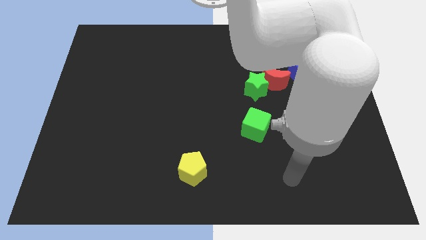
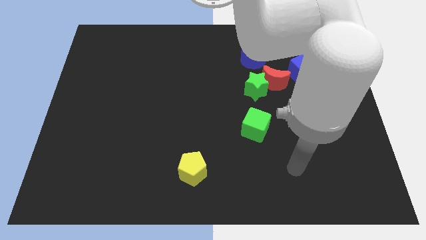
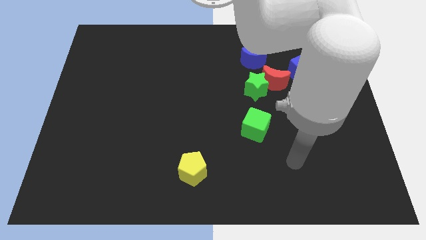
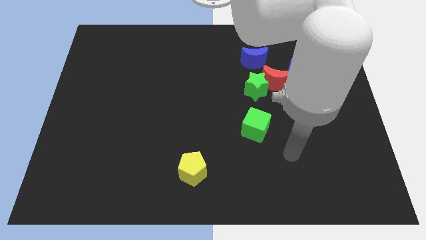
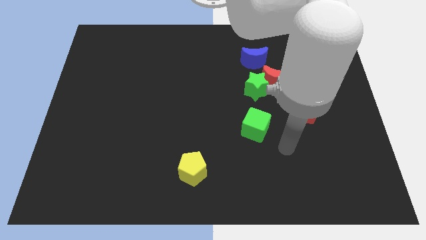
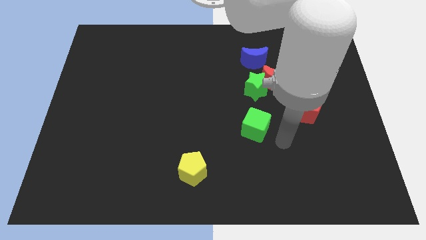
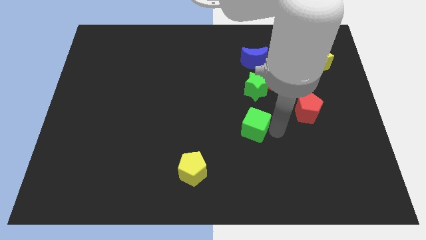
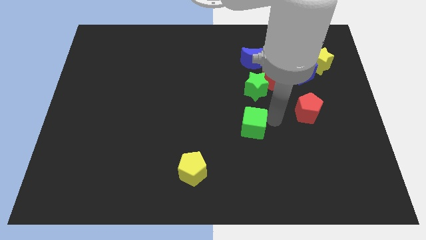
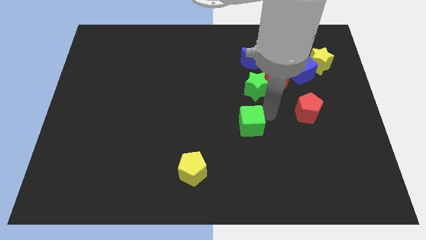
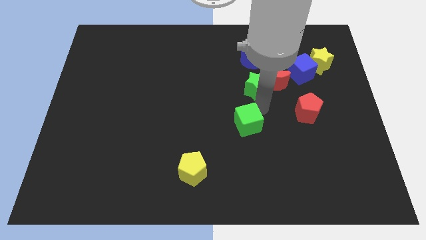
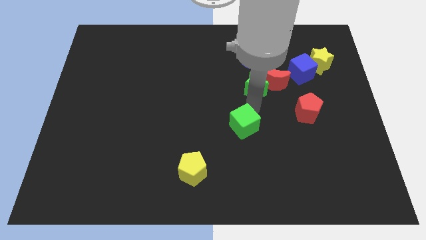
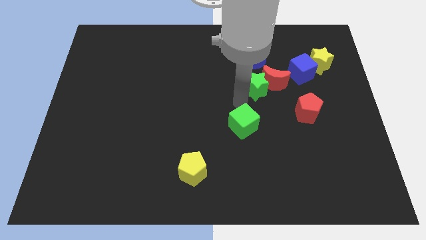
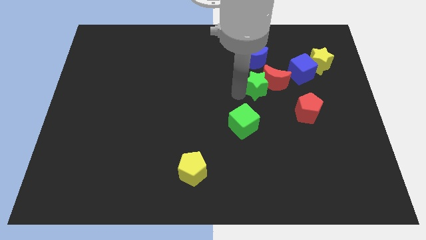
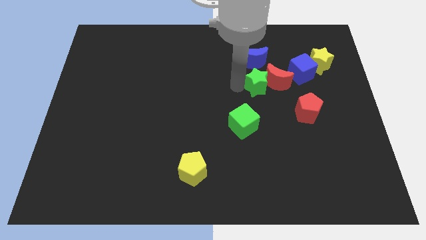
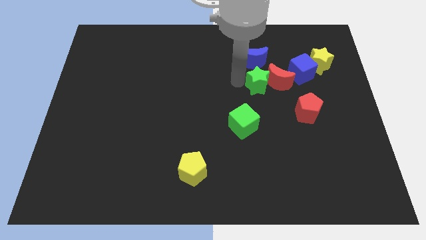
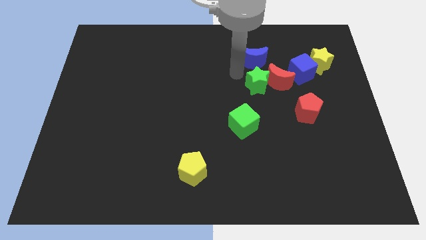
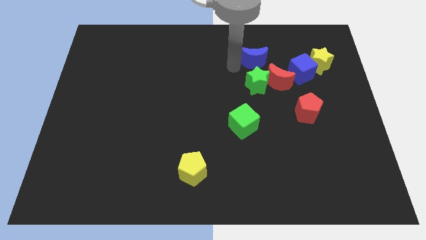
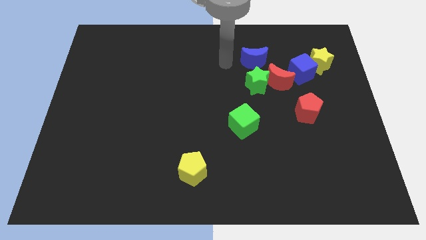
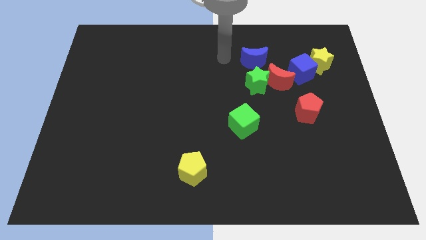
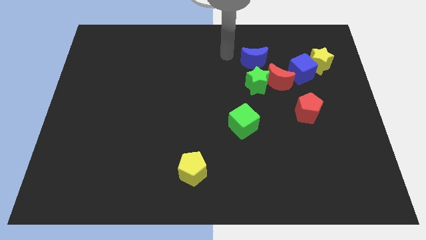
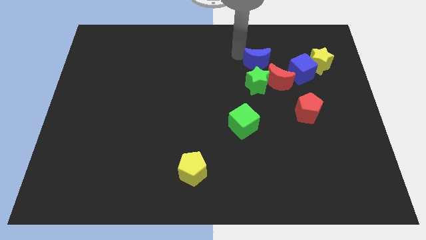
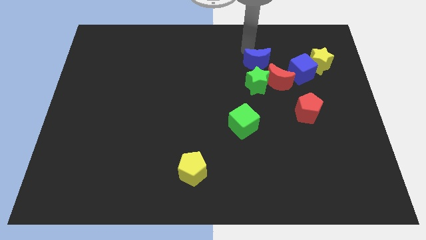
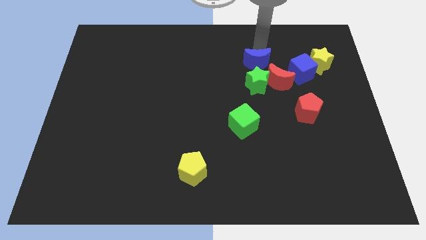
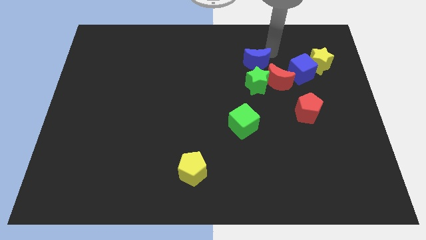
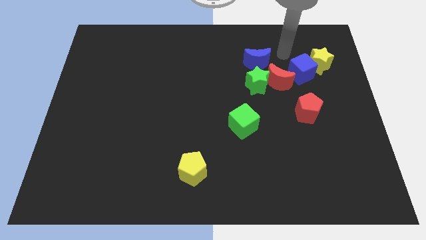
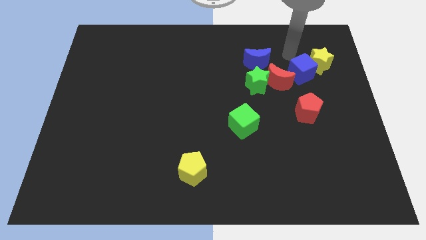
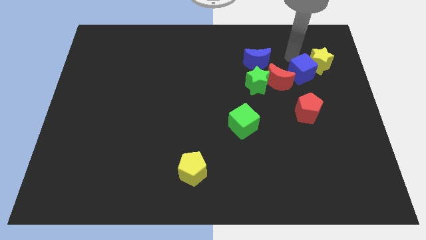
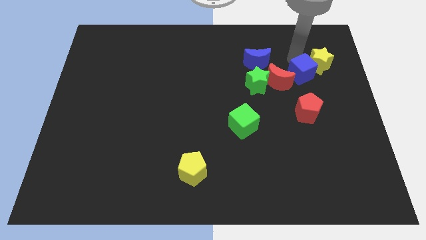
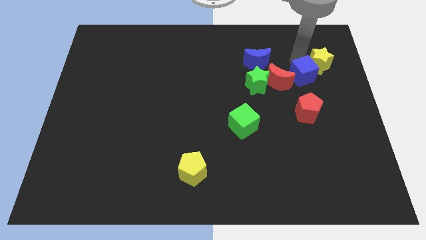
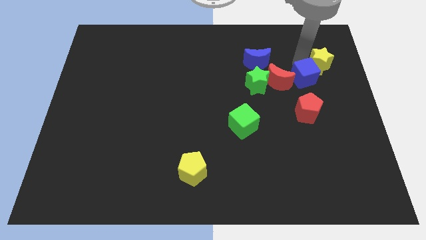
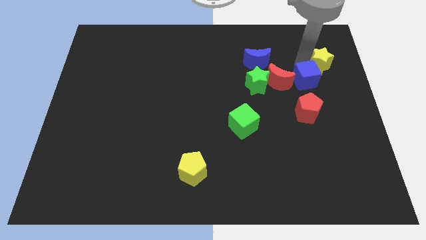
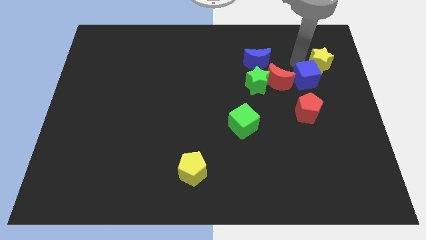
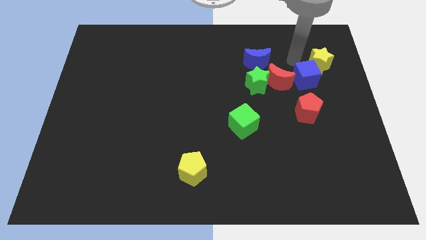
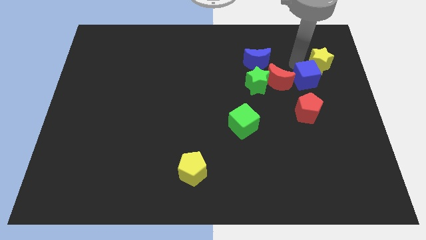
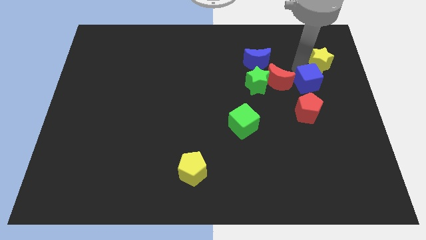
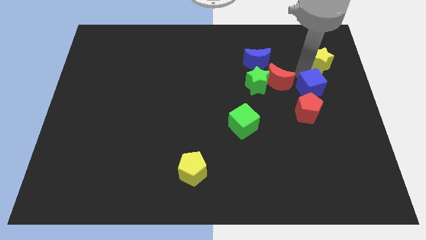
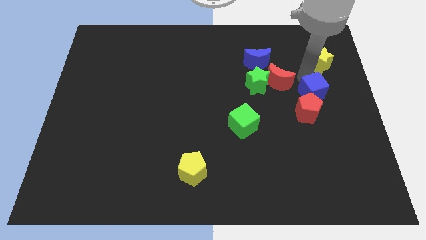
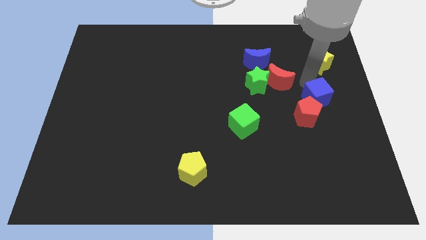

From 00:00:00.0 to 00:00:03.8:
push the blue cube down slightly

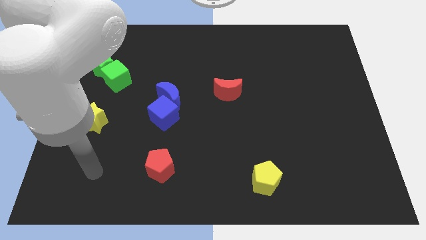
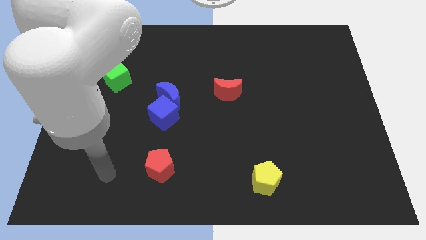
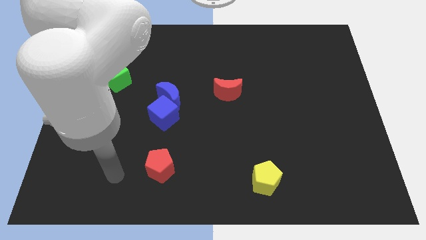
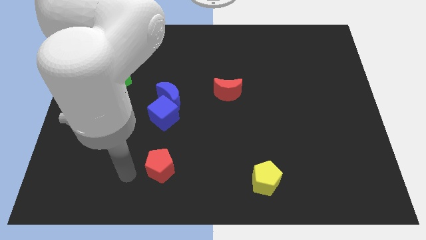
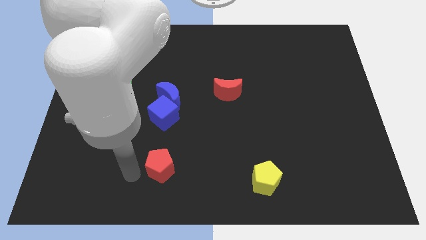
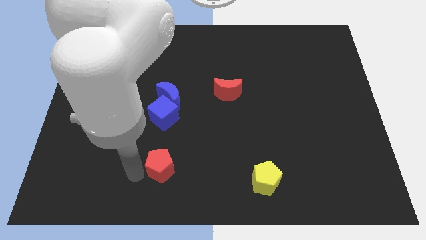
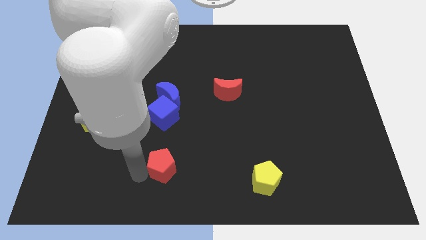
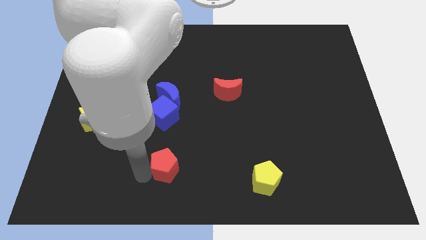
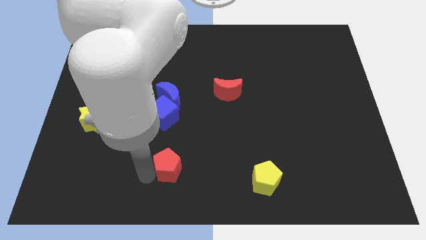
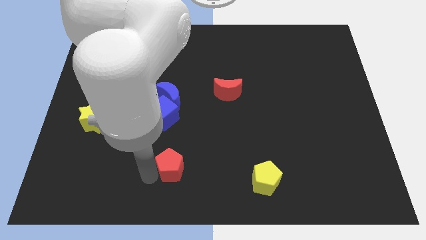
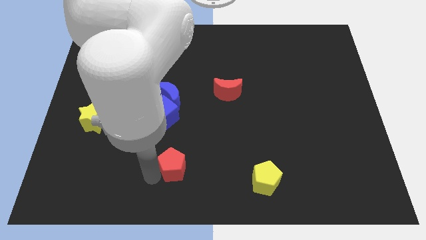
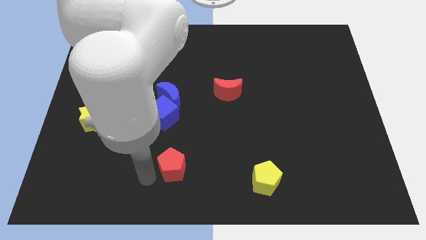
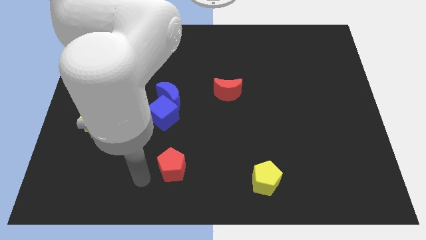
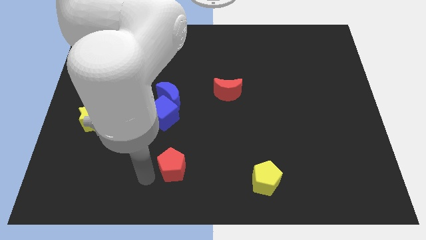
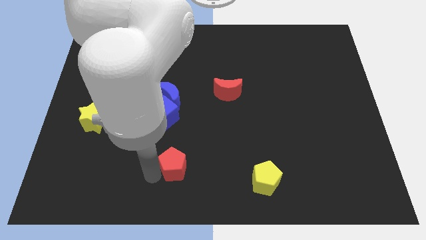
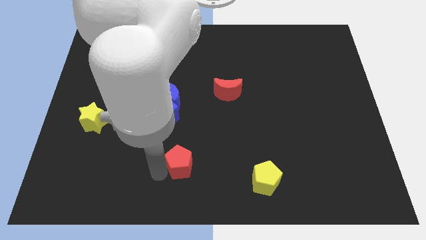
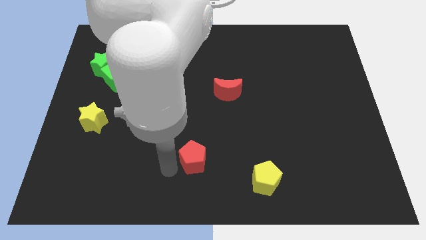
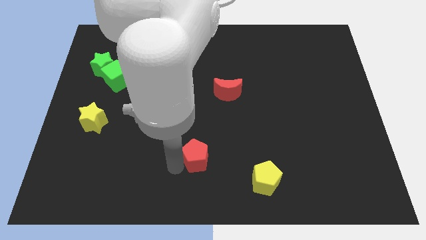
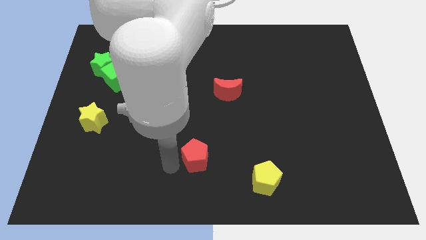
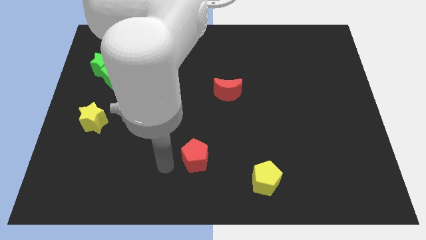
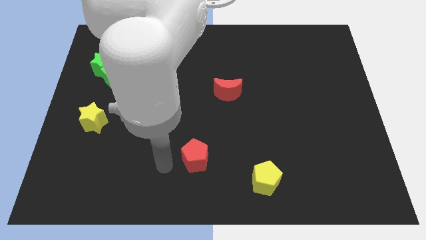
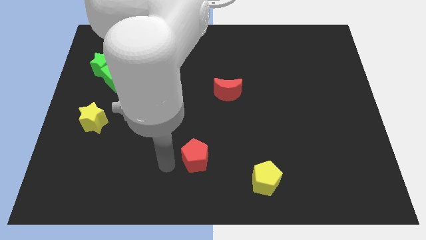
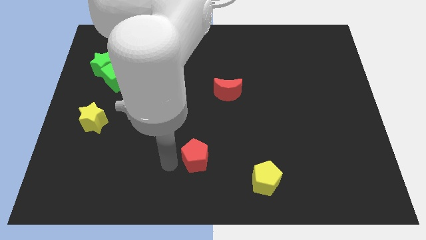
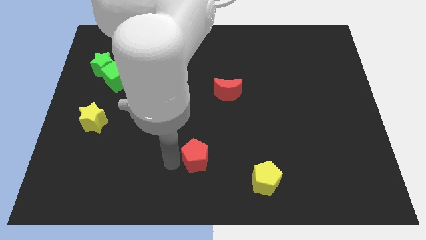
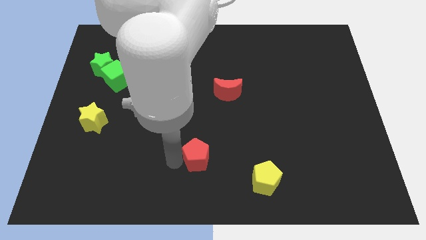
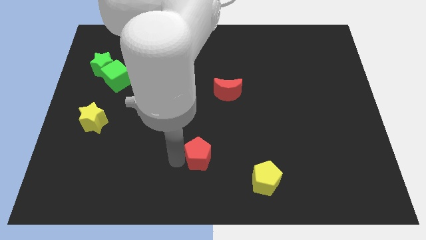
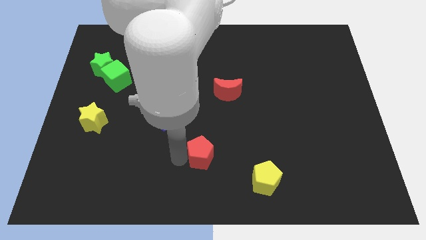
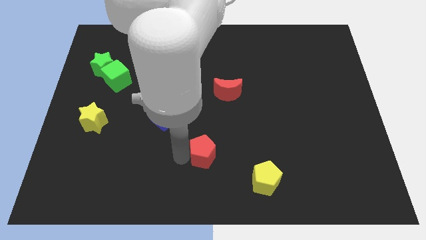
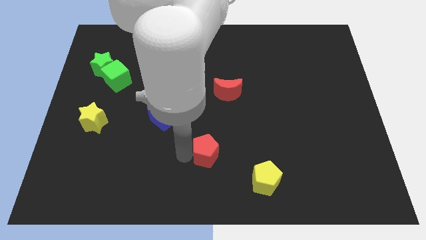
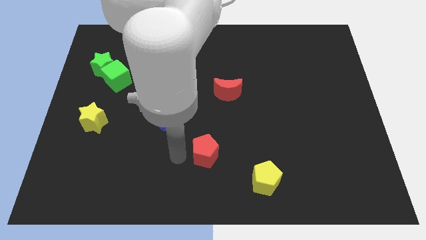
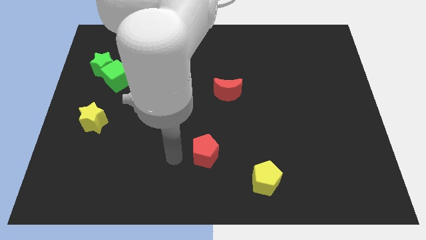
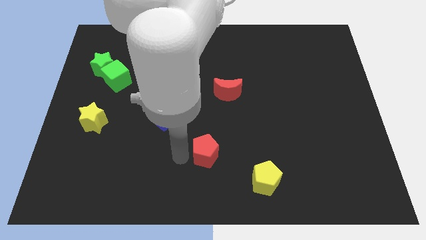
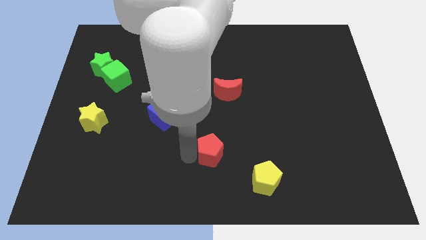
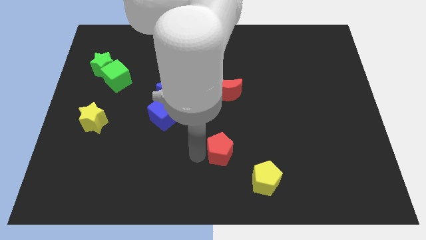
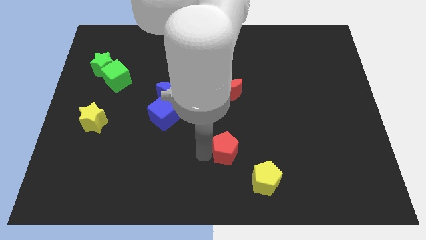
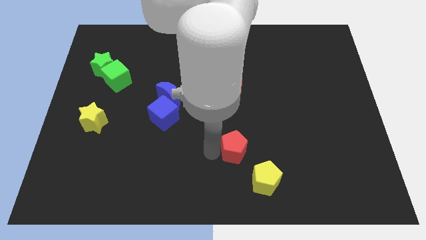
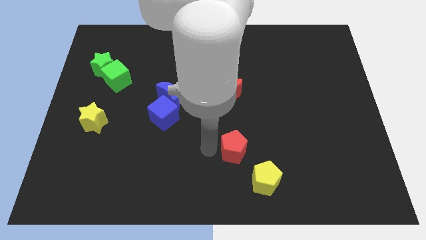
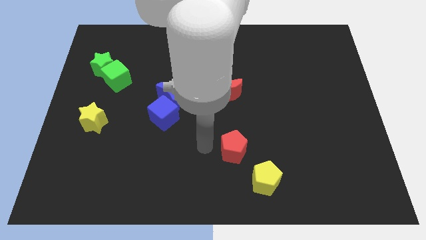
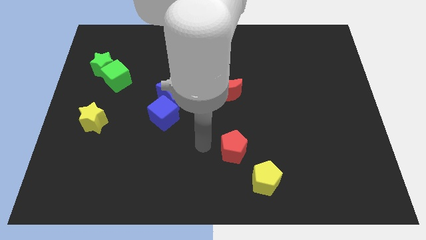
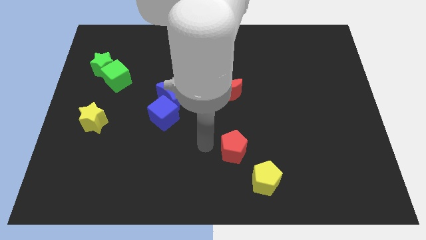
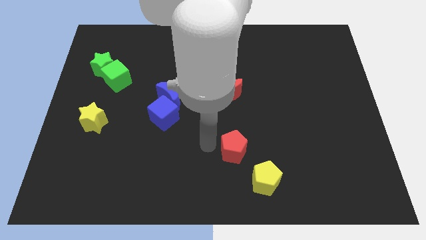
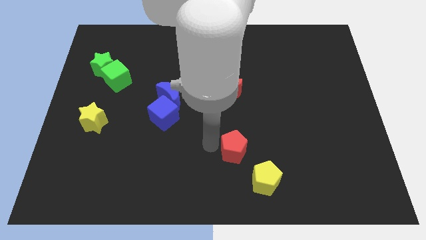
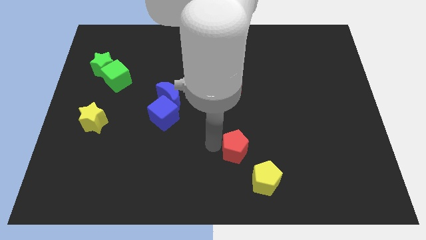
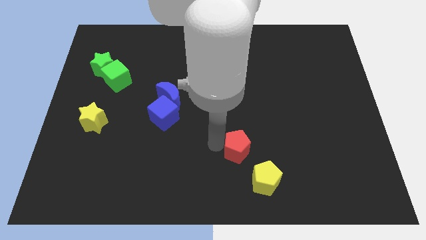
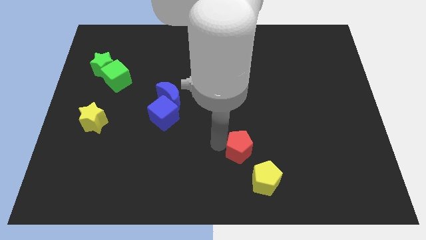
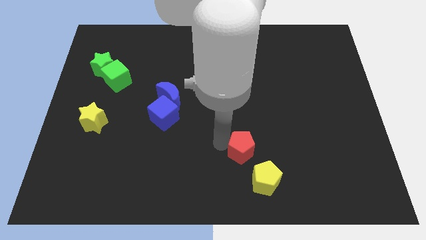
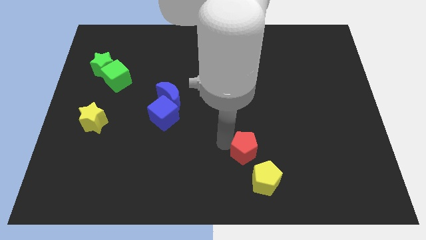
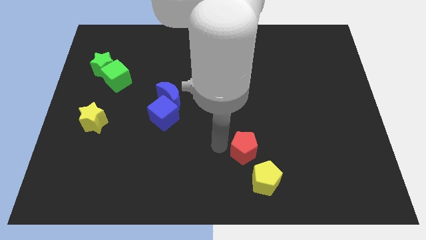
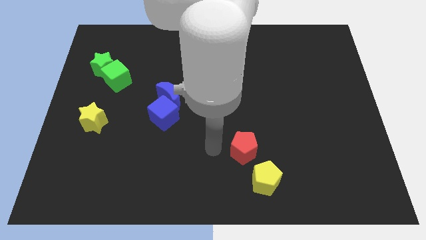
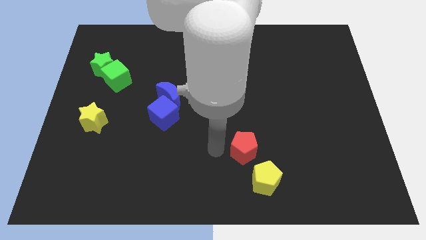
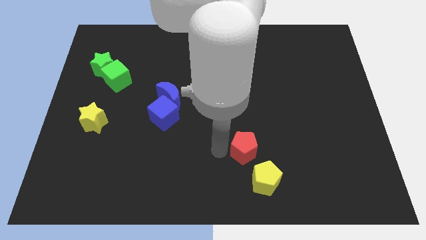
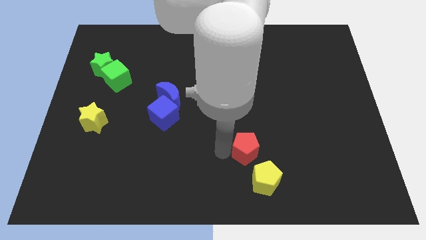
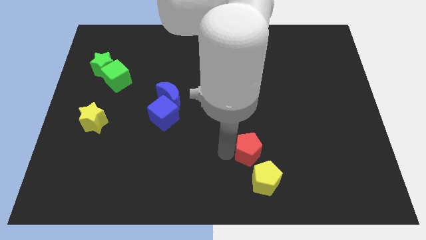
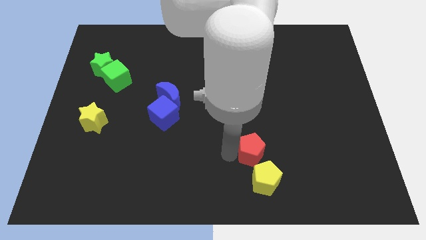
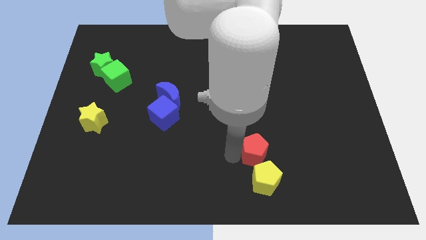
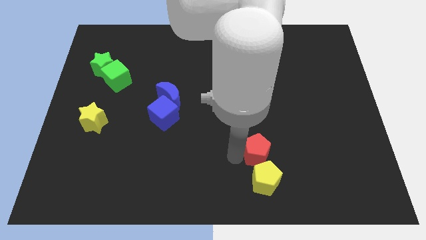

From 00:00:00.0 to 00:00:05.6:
slide the red pentagon right
